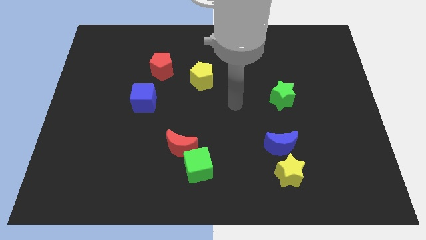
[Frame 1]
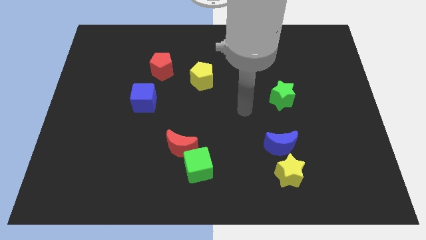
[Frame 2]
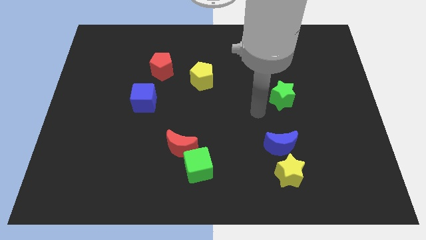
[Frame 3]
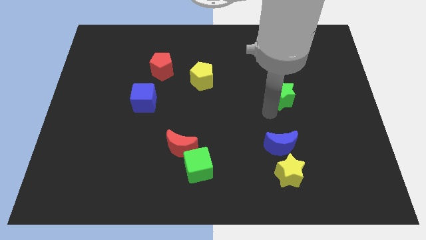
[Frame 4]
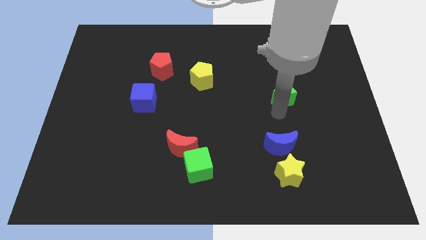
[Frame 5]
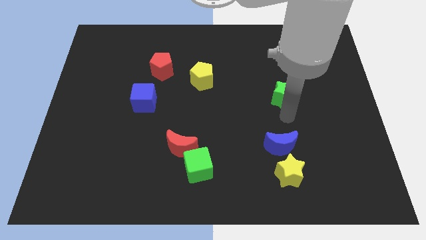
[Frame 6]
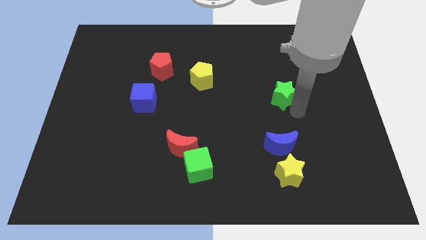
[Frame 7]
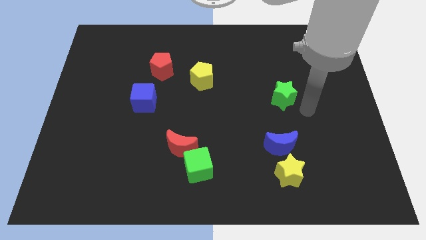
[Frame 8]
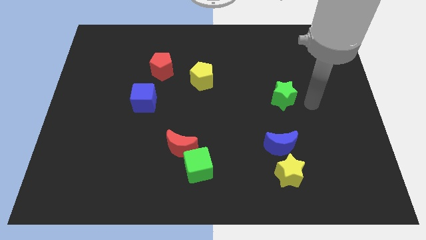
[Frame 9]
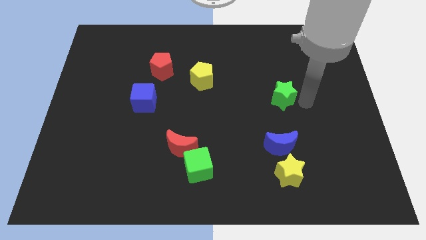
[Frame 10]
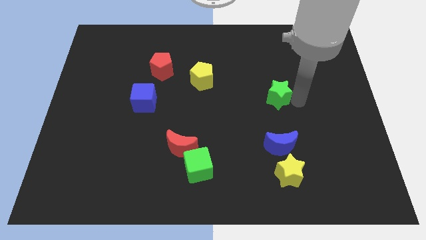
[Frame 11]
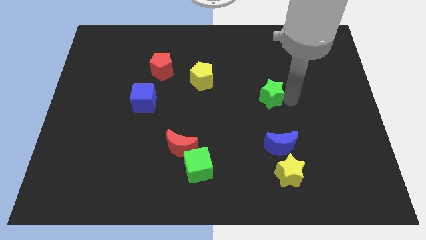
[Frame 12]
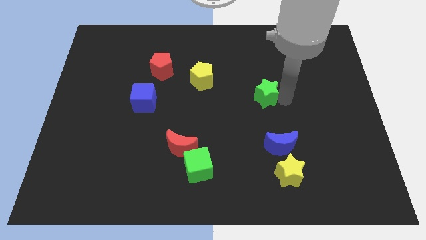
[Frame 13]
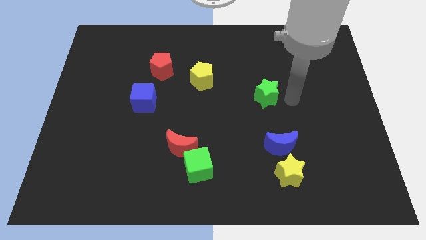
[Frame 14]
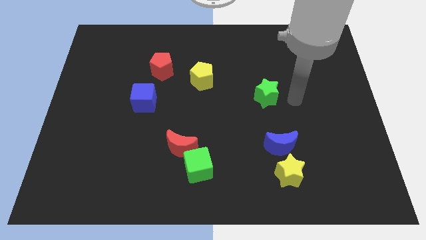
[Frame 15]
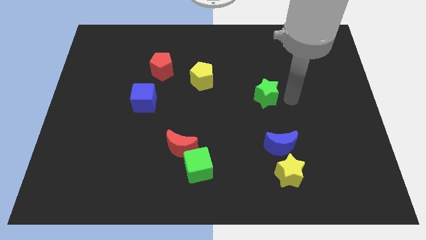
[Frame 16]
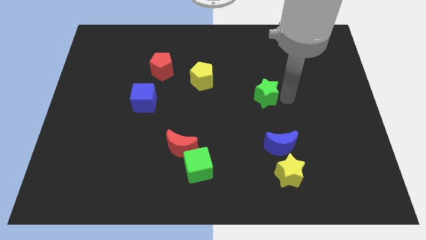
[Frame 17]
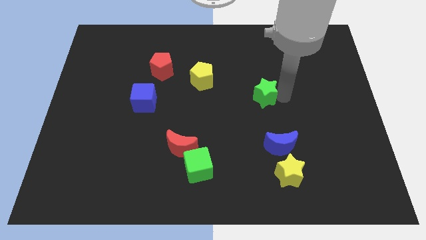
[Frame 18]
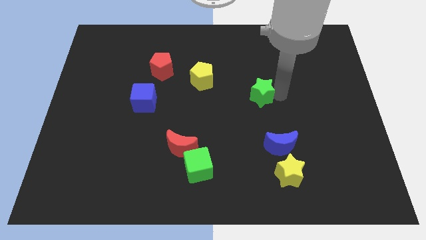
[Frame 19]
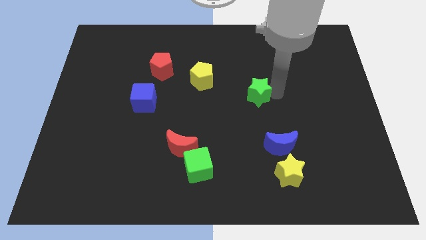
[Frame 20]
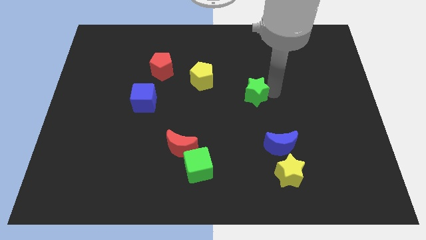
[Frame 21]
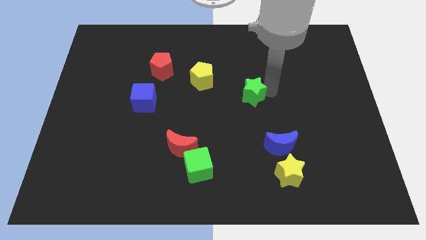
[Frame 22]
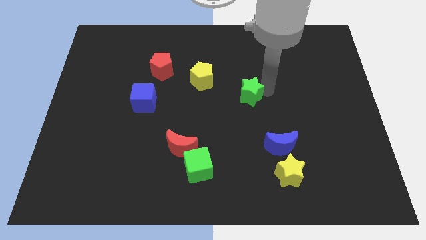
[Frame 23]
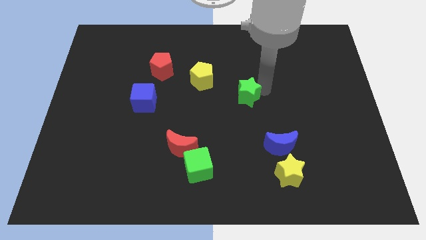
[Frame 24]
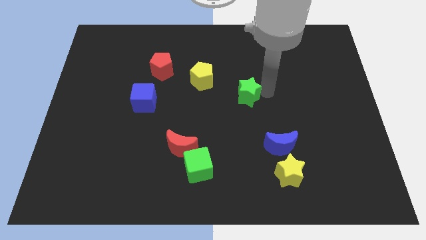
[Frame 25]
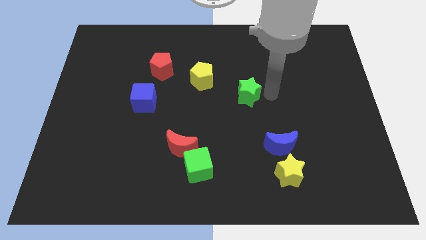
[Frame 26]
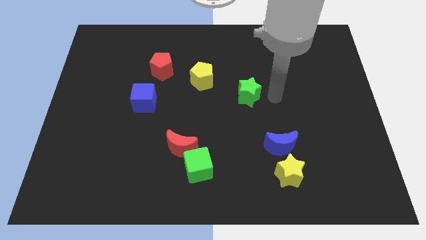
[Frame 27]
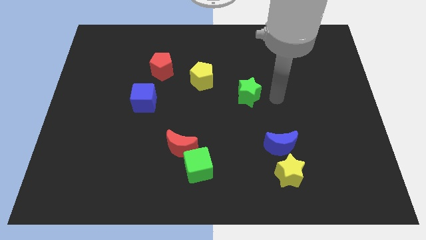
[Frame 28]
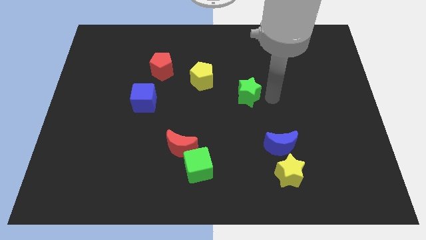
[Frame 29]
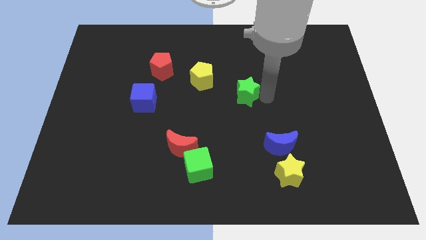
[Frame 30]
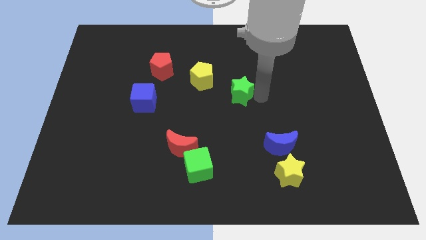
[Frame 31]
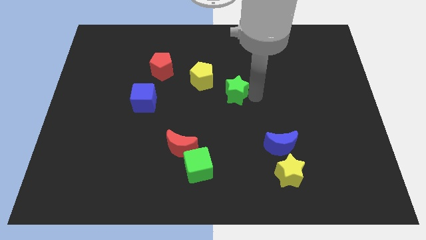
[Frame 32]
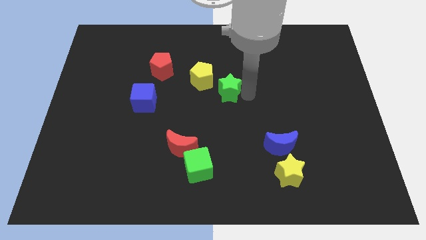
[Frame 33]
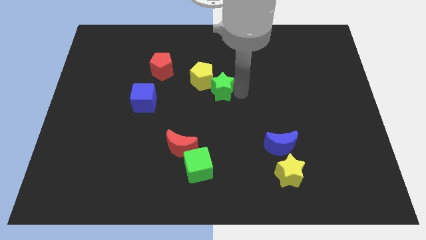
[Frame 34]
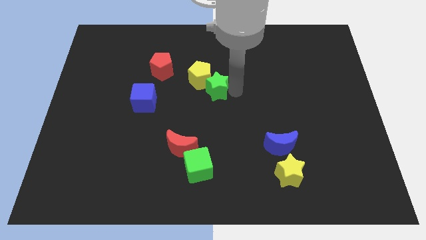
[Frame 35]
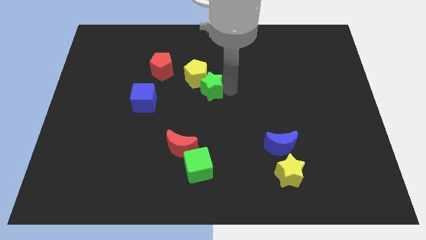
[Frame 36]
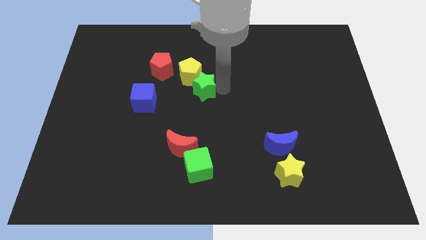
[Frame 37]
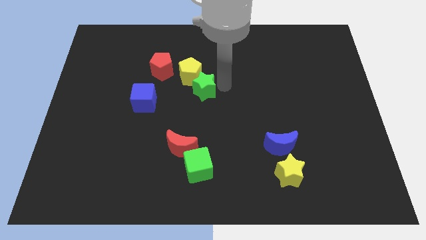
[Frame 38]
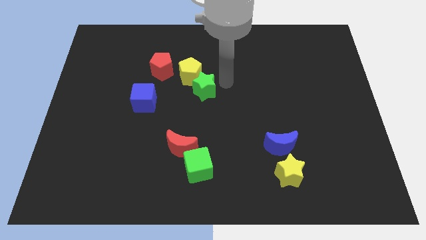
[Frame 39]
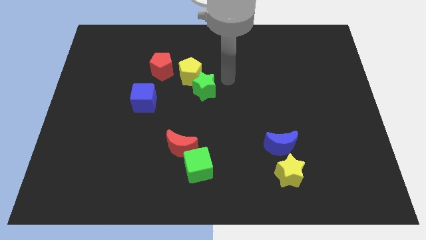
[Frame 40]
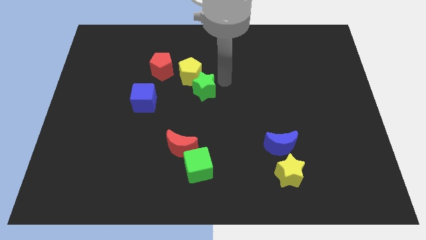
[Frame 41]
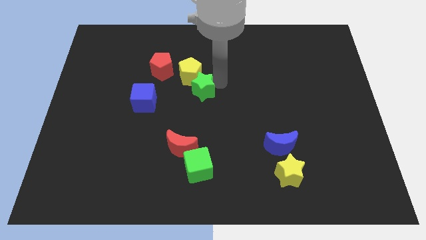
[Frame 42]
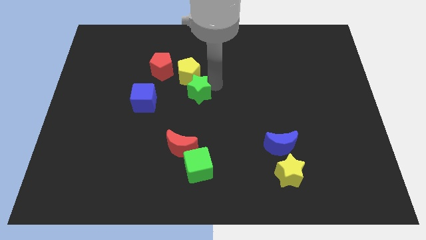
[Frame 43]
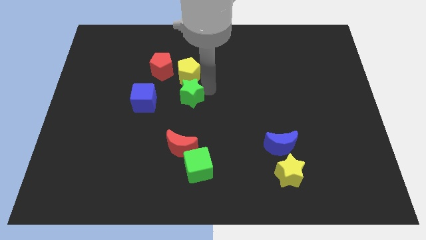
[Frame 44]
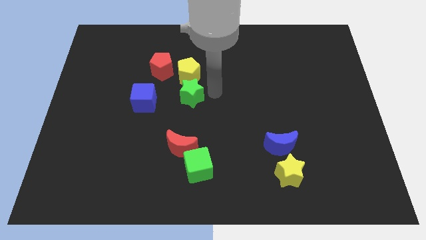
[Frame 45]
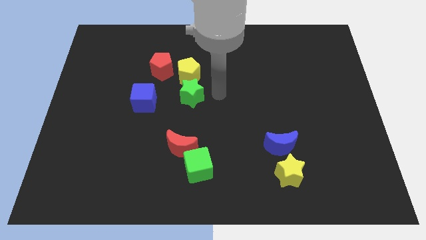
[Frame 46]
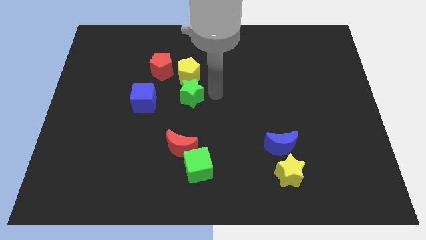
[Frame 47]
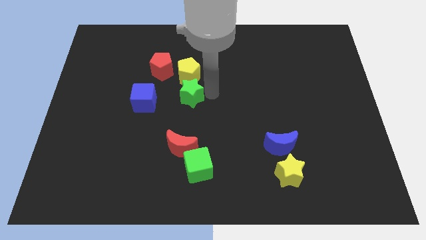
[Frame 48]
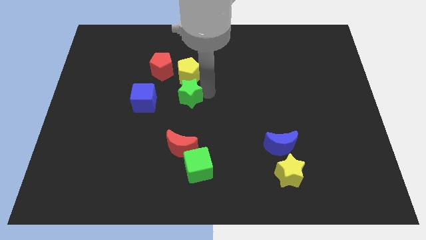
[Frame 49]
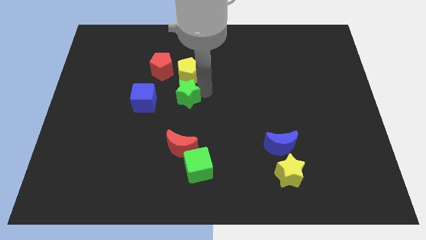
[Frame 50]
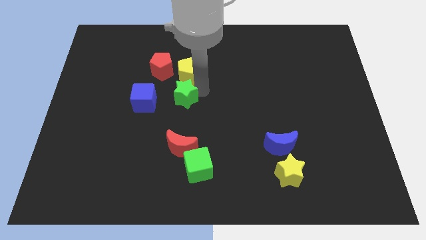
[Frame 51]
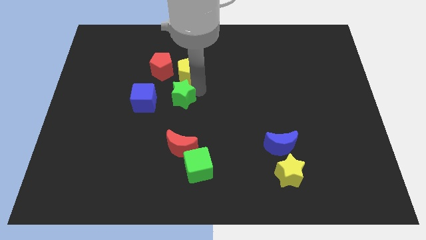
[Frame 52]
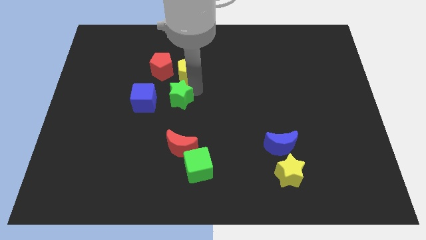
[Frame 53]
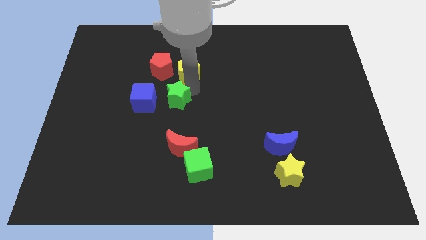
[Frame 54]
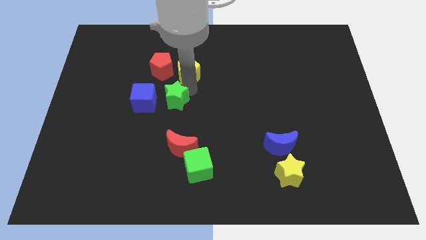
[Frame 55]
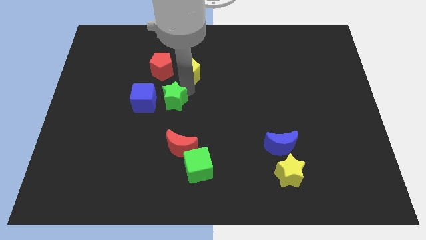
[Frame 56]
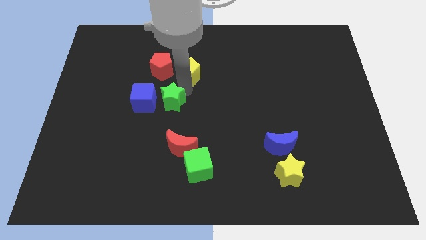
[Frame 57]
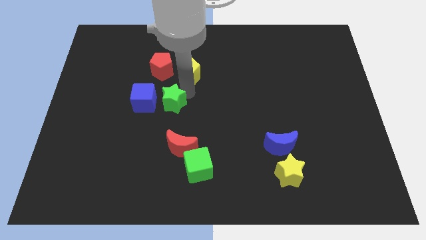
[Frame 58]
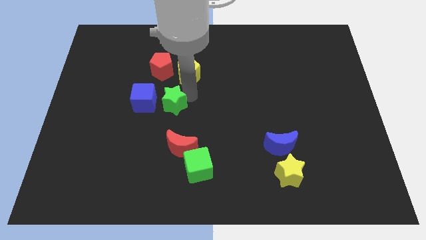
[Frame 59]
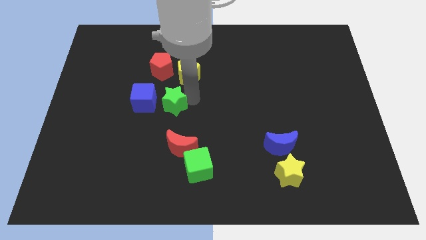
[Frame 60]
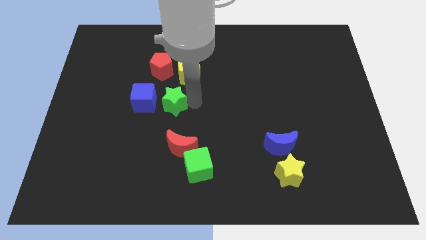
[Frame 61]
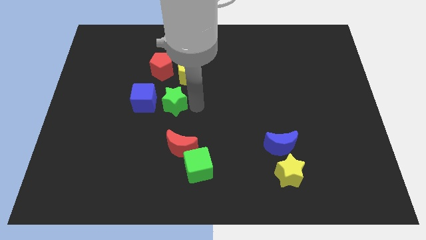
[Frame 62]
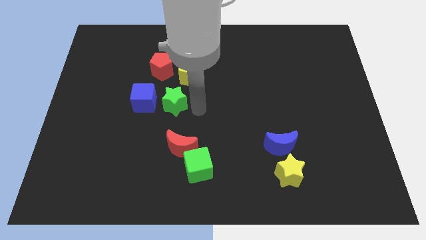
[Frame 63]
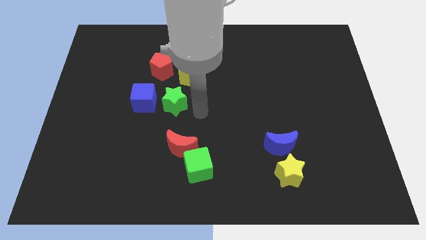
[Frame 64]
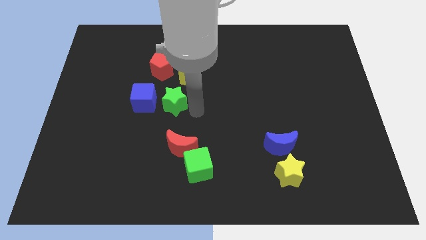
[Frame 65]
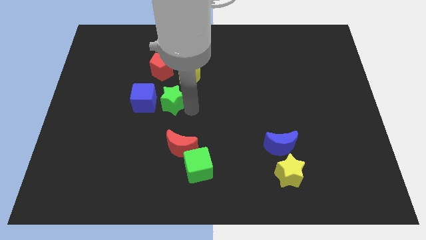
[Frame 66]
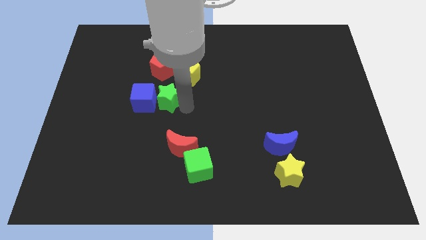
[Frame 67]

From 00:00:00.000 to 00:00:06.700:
move the green star towards the blue cube
